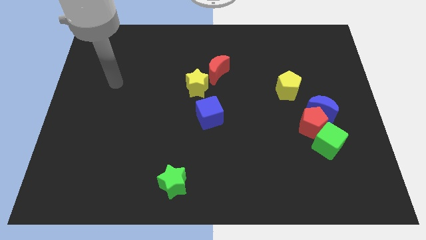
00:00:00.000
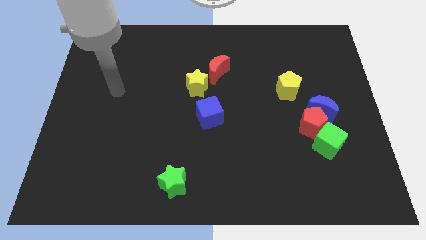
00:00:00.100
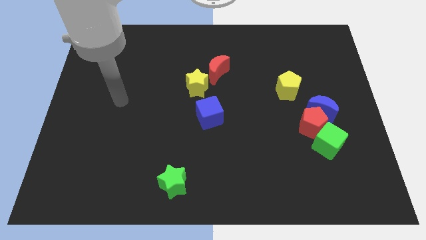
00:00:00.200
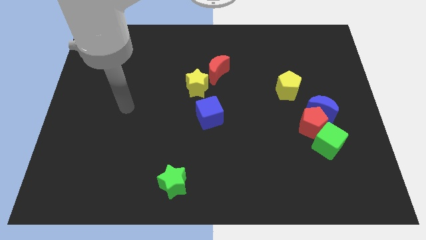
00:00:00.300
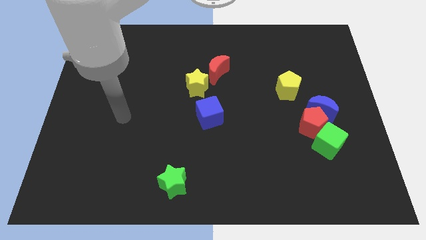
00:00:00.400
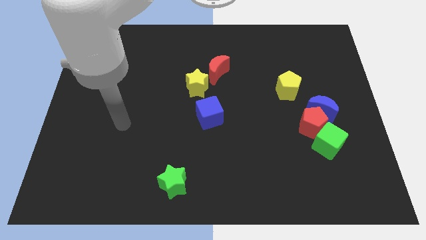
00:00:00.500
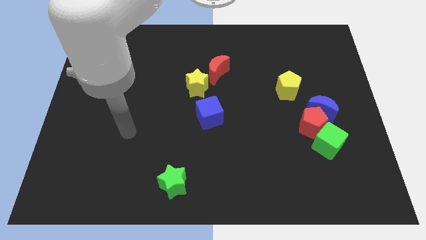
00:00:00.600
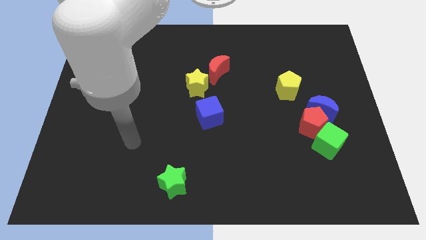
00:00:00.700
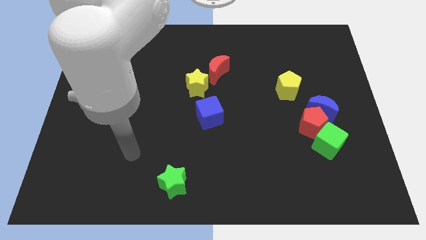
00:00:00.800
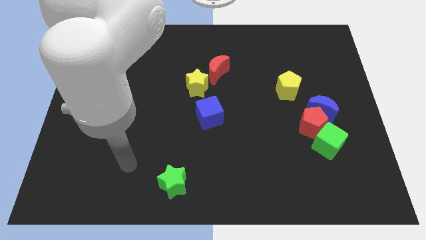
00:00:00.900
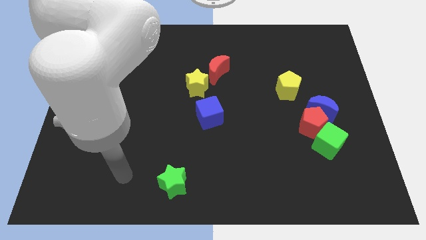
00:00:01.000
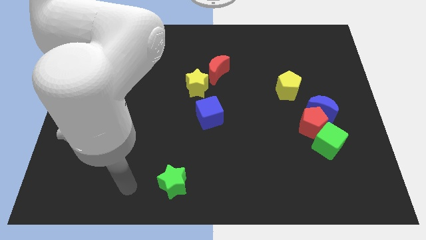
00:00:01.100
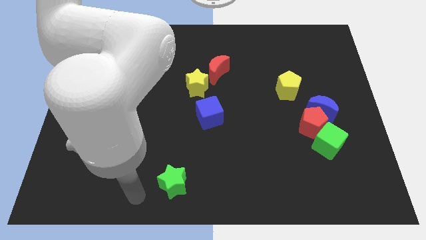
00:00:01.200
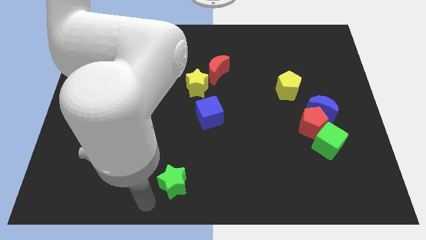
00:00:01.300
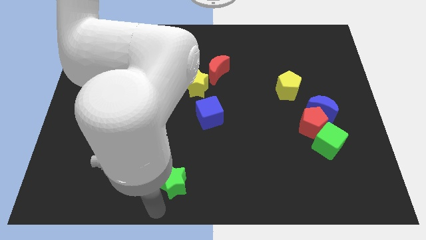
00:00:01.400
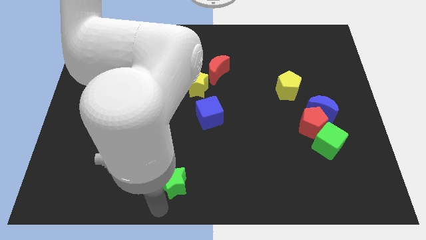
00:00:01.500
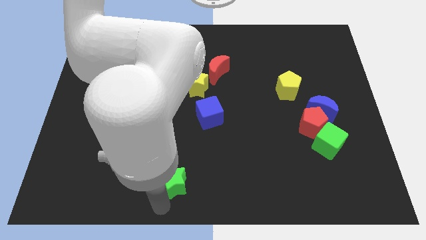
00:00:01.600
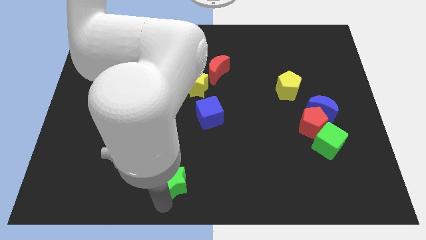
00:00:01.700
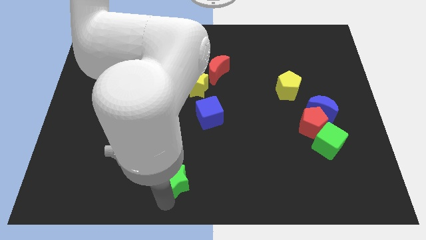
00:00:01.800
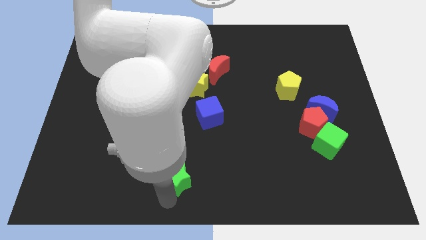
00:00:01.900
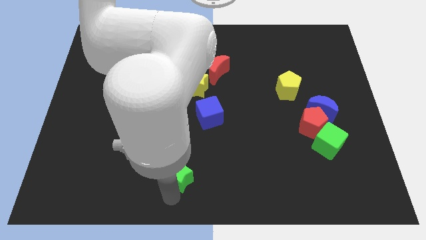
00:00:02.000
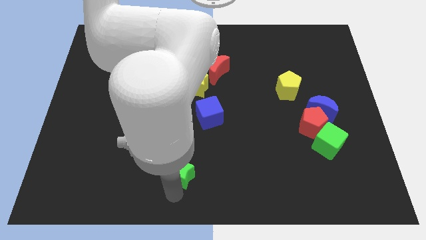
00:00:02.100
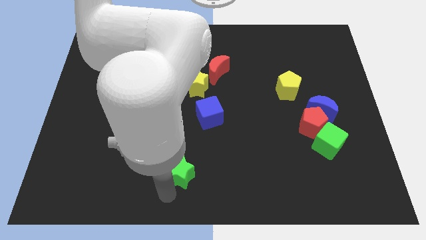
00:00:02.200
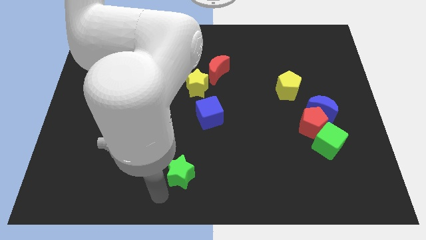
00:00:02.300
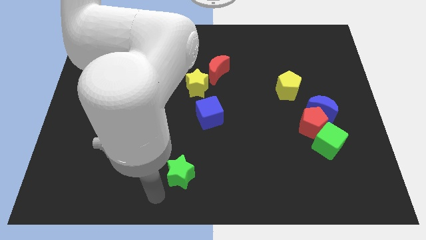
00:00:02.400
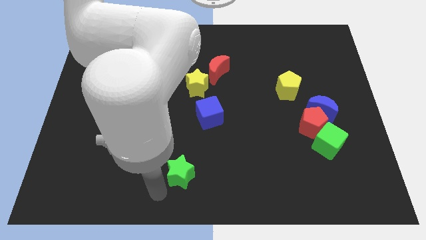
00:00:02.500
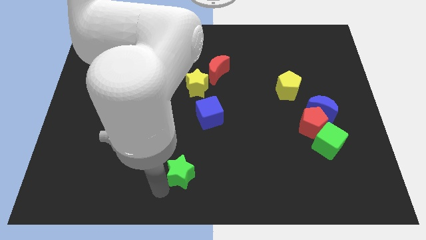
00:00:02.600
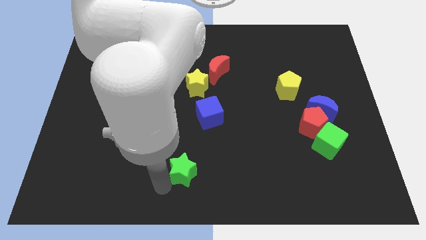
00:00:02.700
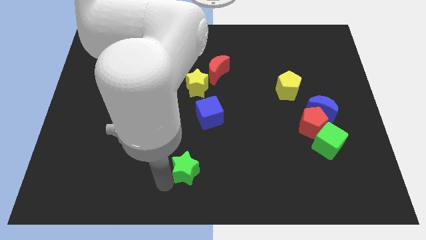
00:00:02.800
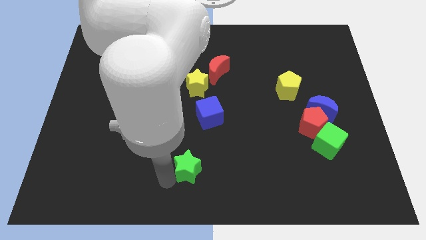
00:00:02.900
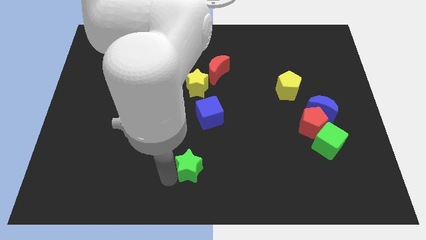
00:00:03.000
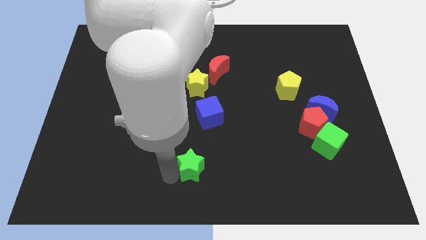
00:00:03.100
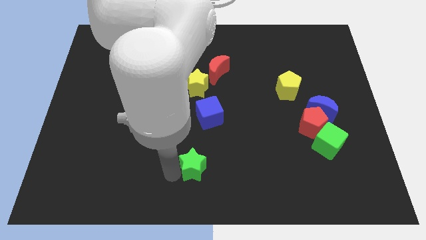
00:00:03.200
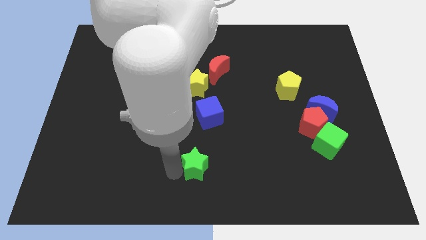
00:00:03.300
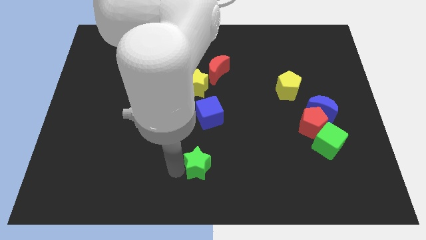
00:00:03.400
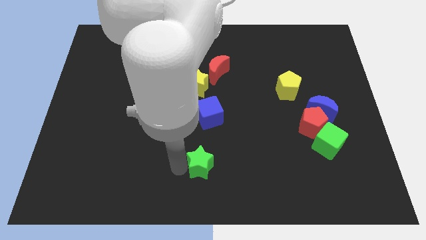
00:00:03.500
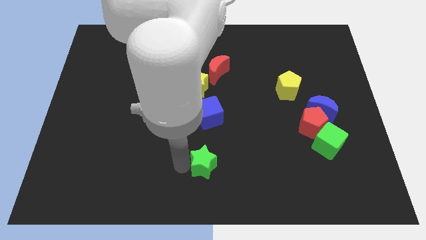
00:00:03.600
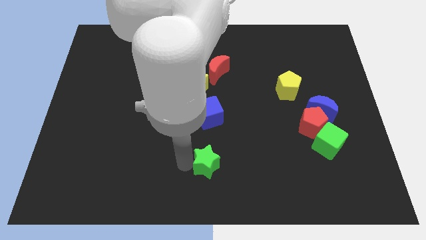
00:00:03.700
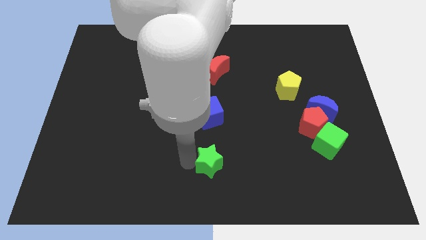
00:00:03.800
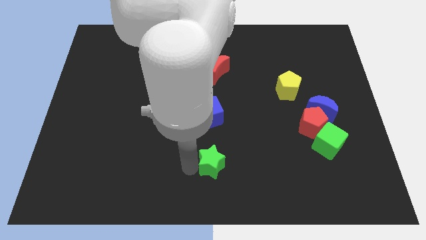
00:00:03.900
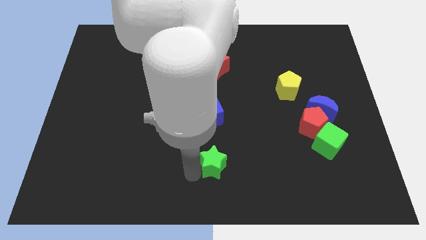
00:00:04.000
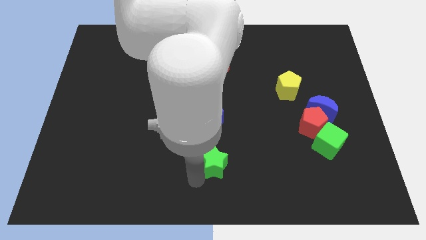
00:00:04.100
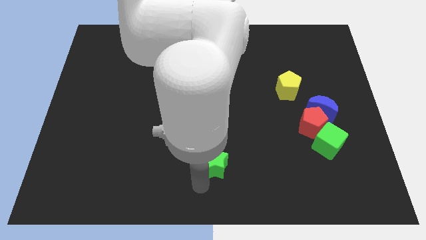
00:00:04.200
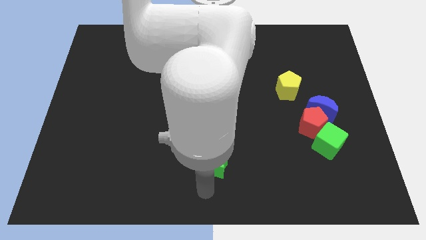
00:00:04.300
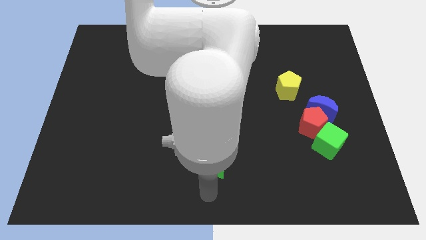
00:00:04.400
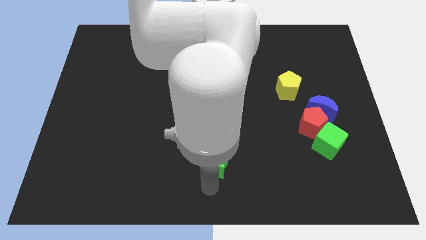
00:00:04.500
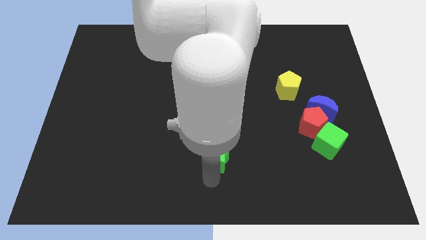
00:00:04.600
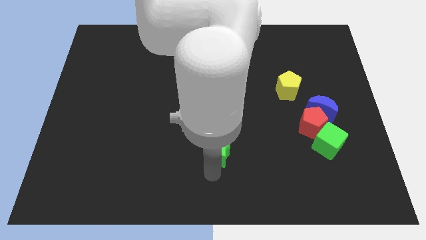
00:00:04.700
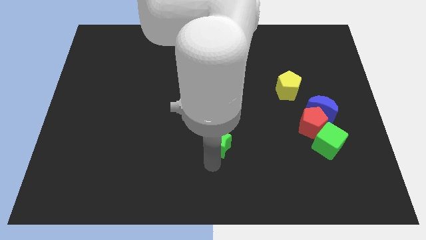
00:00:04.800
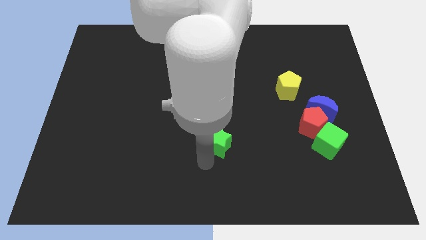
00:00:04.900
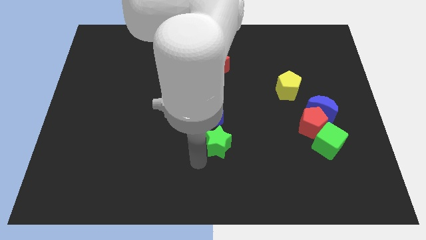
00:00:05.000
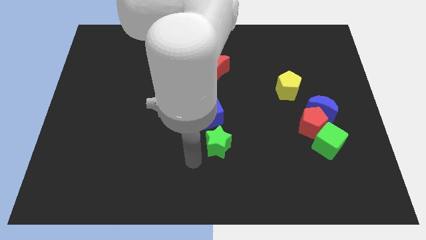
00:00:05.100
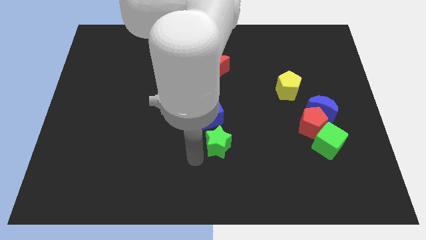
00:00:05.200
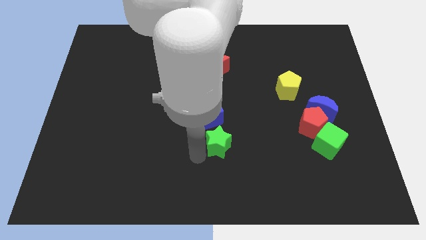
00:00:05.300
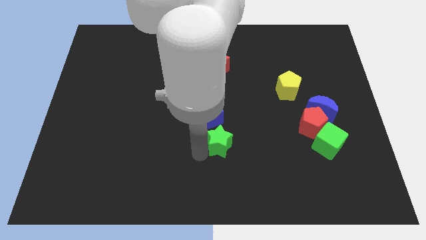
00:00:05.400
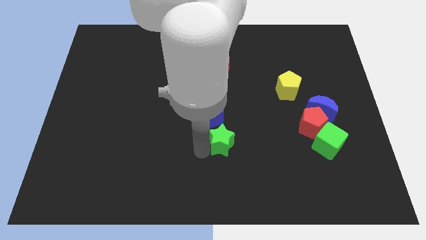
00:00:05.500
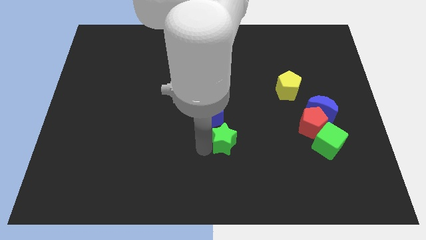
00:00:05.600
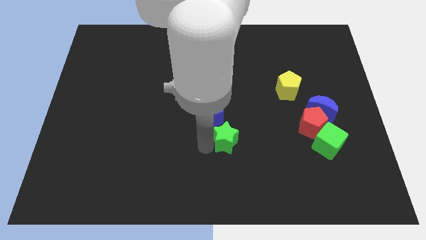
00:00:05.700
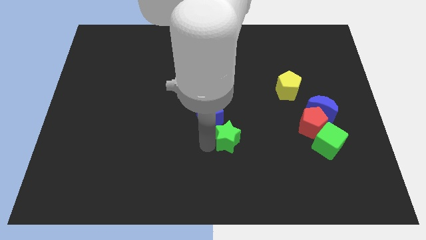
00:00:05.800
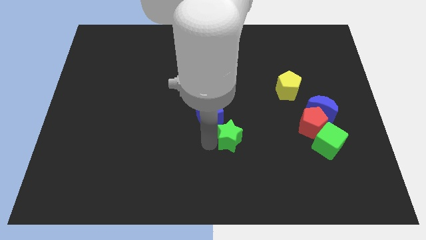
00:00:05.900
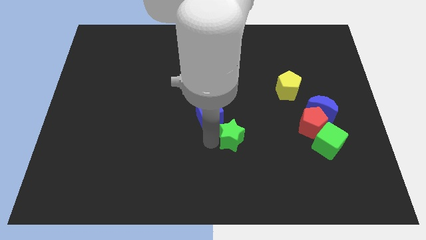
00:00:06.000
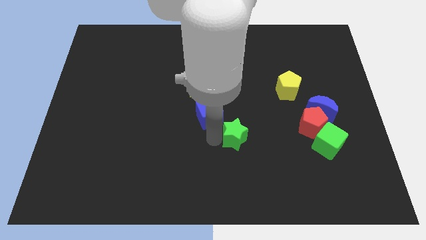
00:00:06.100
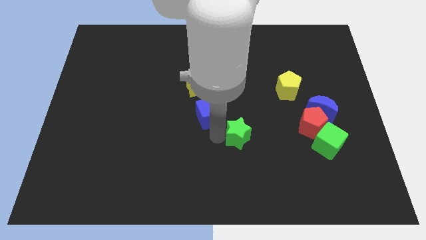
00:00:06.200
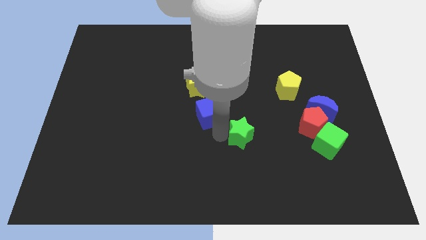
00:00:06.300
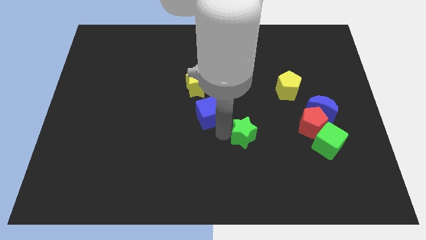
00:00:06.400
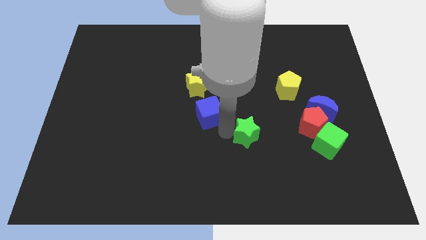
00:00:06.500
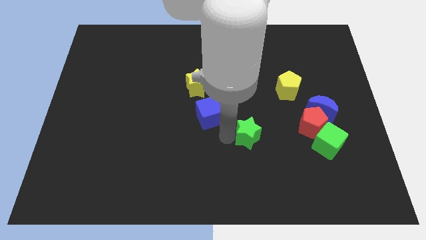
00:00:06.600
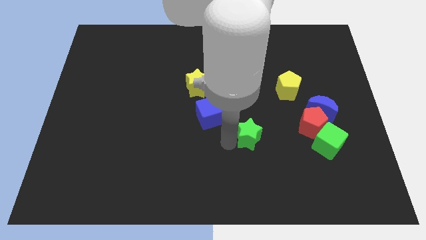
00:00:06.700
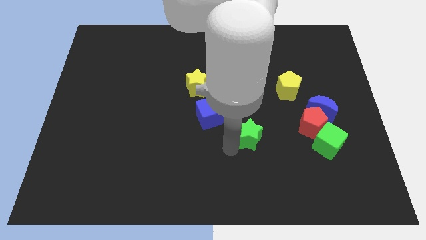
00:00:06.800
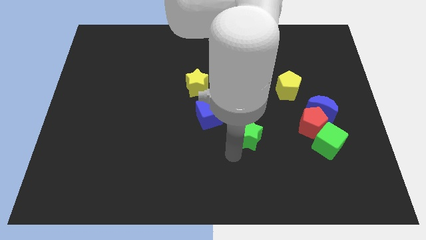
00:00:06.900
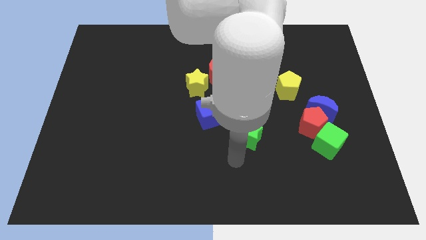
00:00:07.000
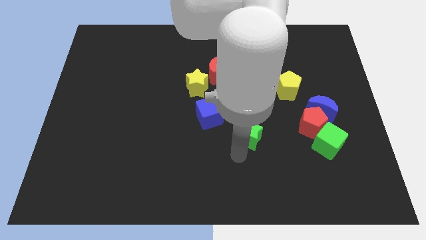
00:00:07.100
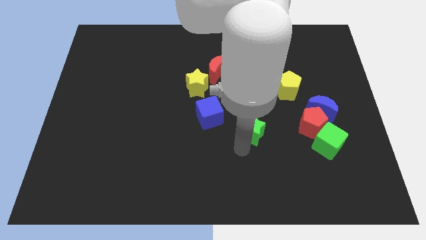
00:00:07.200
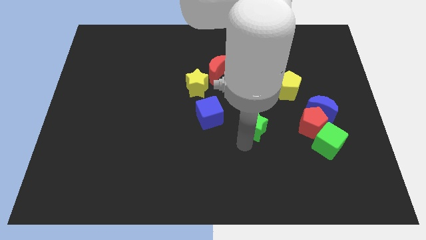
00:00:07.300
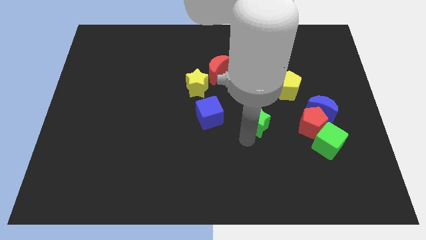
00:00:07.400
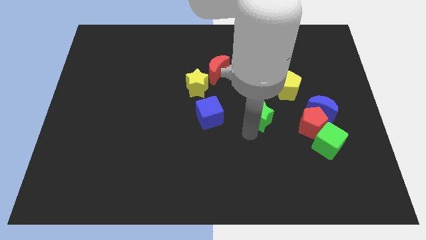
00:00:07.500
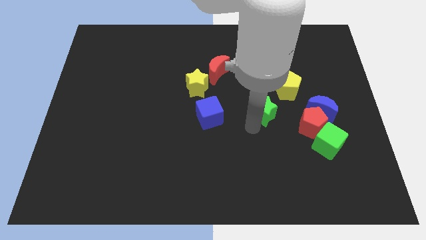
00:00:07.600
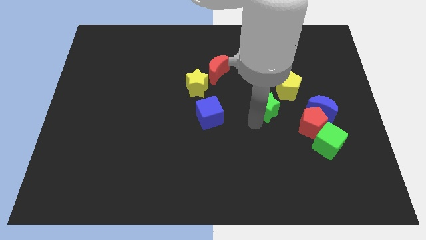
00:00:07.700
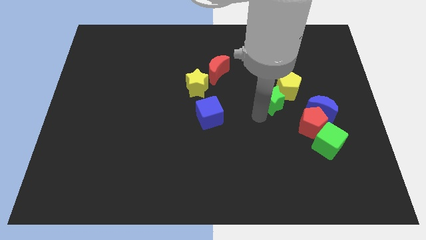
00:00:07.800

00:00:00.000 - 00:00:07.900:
move the green star towards the yellow pentagon
